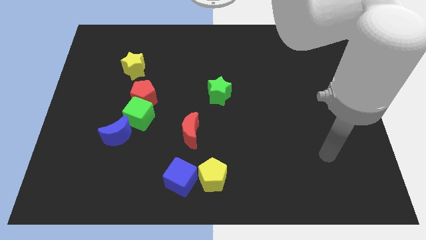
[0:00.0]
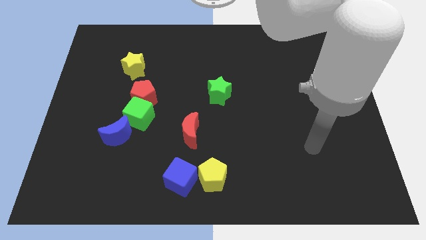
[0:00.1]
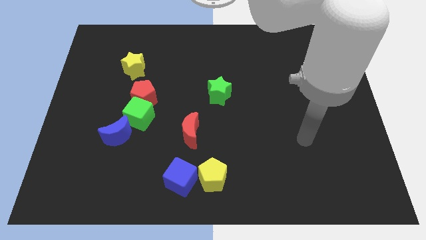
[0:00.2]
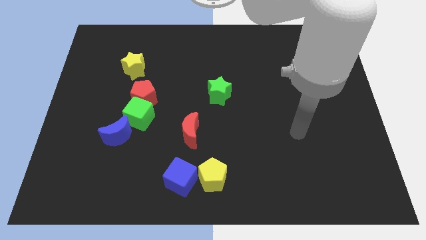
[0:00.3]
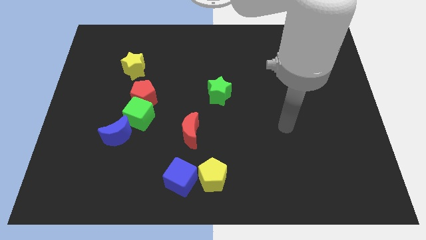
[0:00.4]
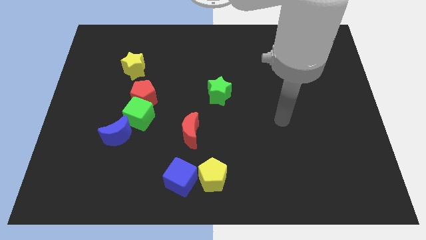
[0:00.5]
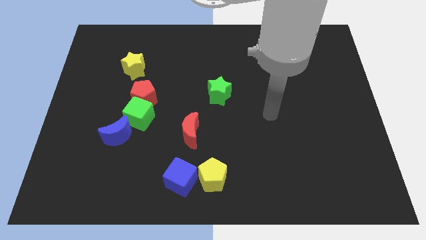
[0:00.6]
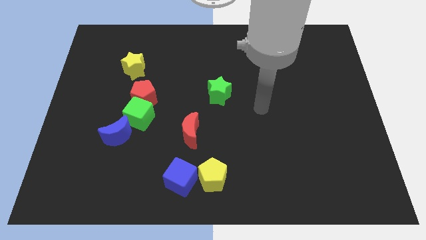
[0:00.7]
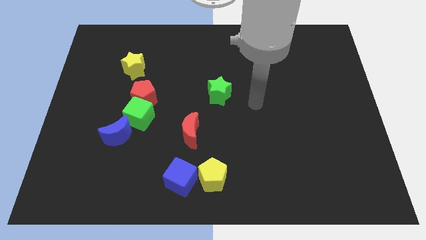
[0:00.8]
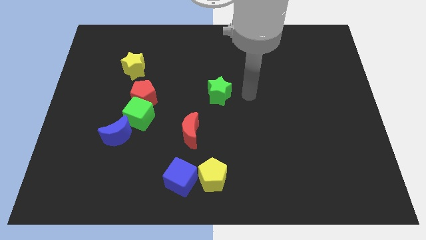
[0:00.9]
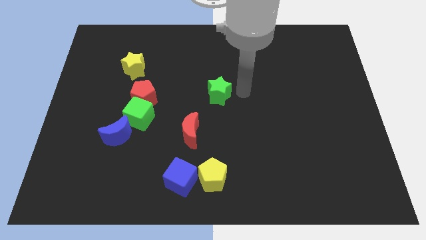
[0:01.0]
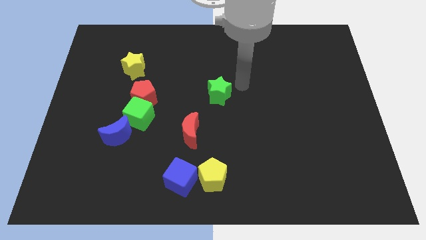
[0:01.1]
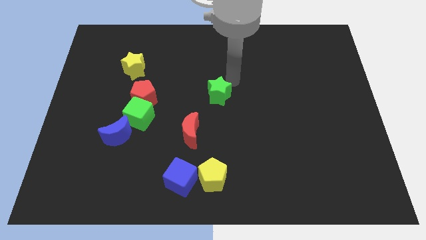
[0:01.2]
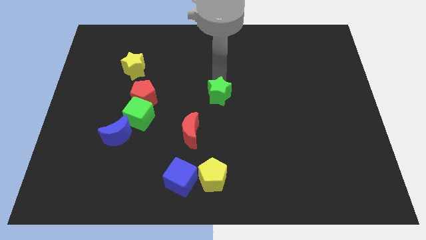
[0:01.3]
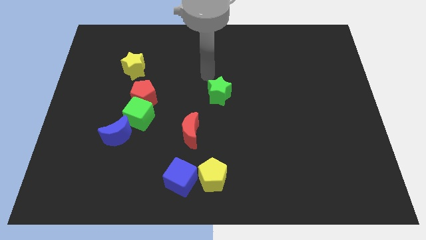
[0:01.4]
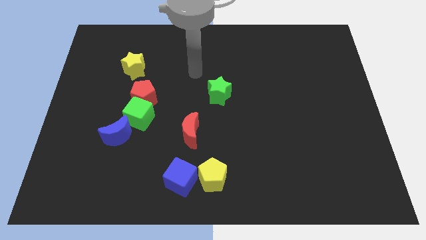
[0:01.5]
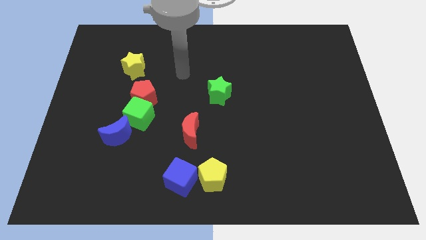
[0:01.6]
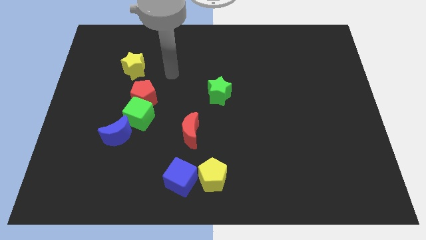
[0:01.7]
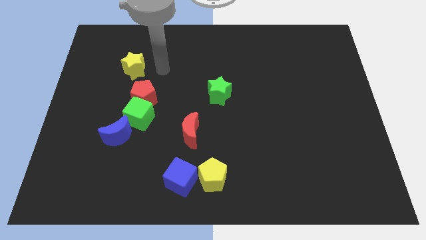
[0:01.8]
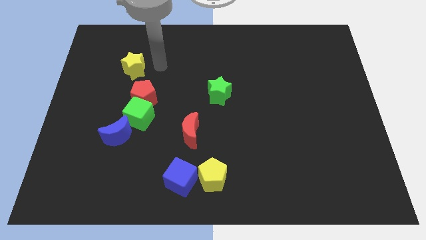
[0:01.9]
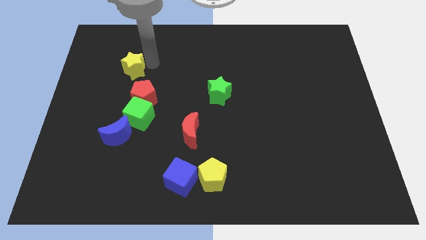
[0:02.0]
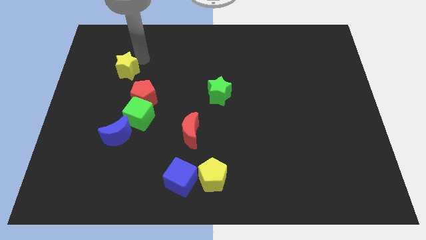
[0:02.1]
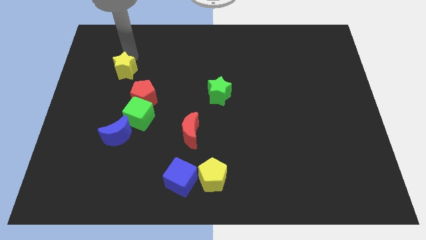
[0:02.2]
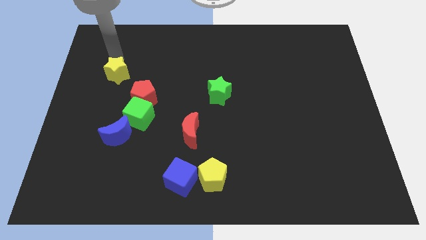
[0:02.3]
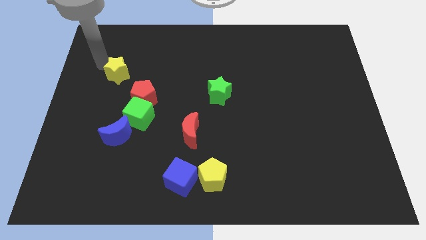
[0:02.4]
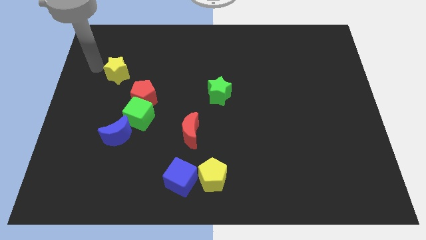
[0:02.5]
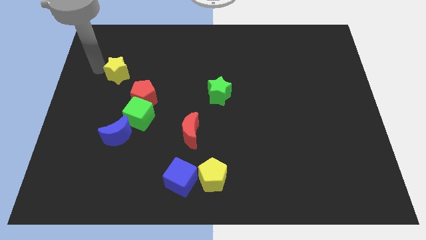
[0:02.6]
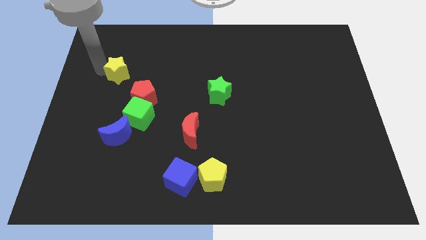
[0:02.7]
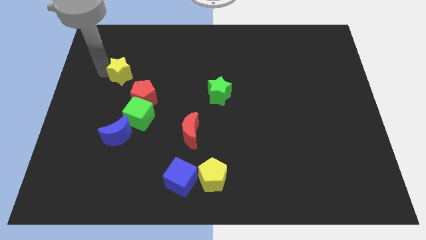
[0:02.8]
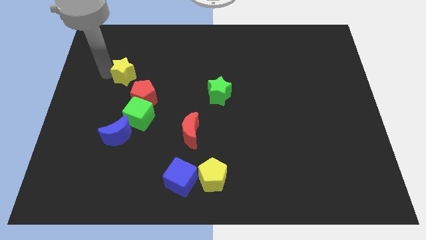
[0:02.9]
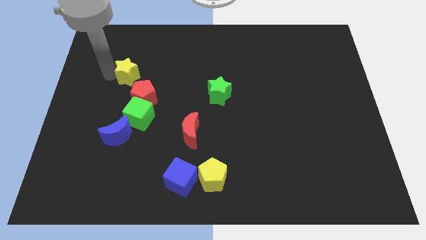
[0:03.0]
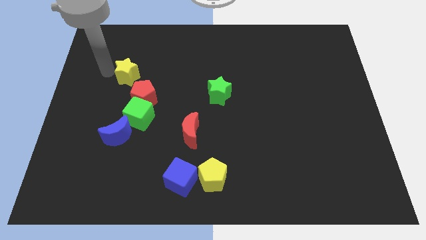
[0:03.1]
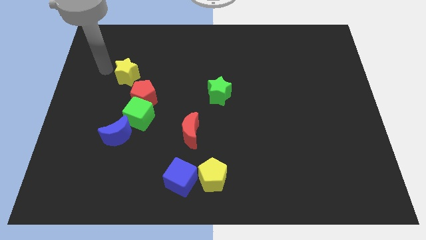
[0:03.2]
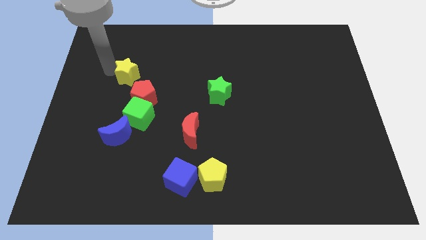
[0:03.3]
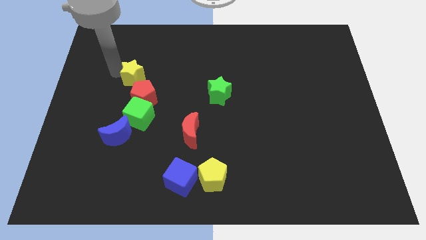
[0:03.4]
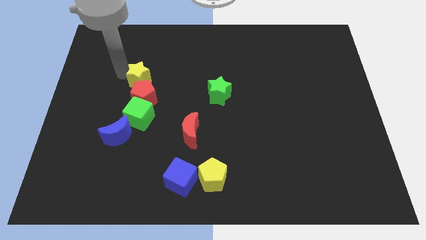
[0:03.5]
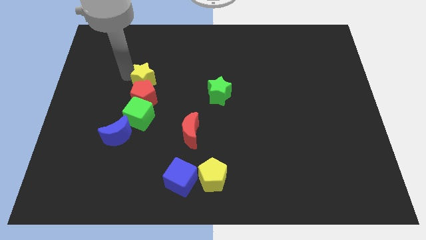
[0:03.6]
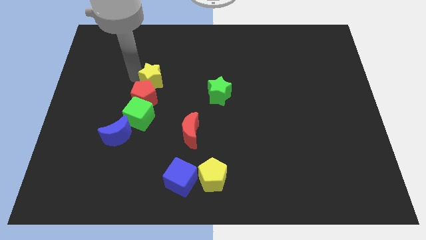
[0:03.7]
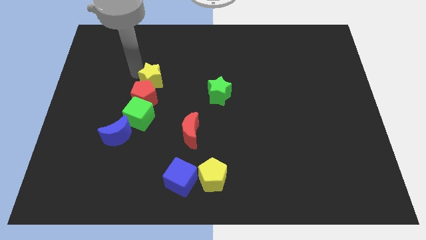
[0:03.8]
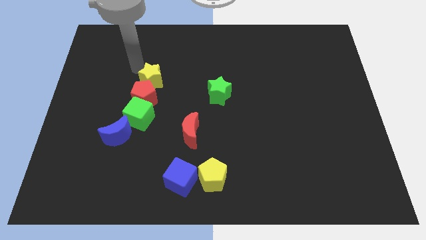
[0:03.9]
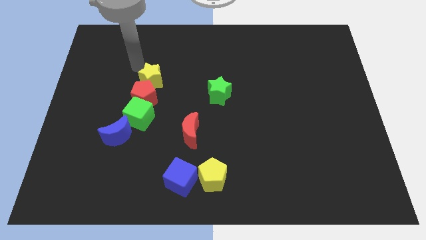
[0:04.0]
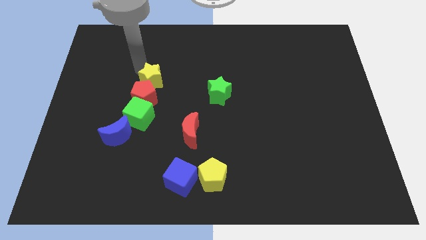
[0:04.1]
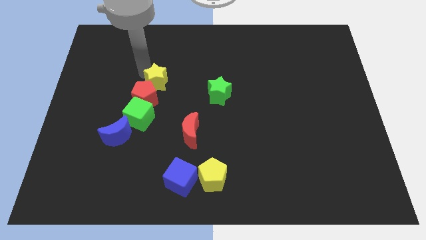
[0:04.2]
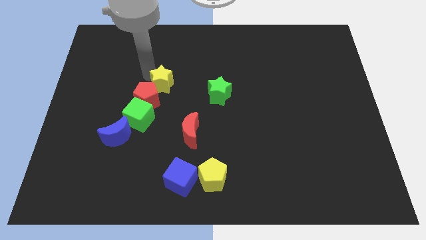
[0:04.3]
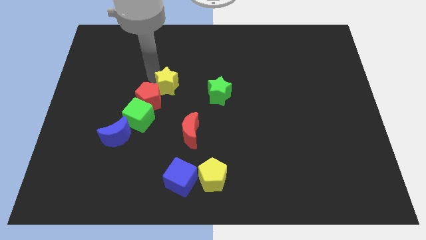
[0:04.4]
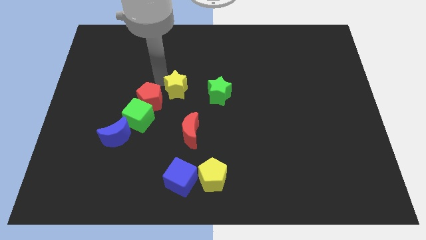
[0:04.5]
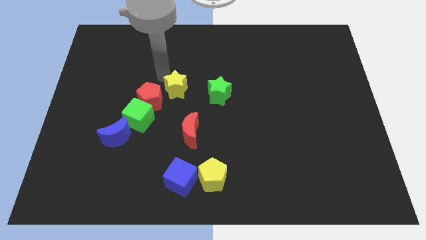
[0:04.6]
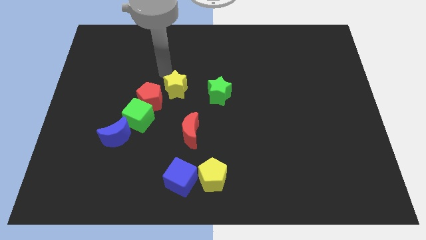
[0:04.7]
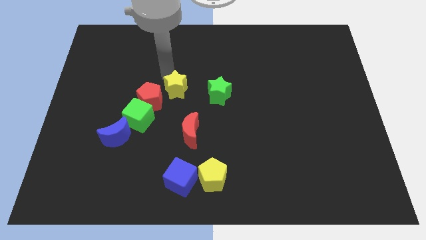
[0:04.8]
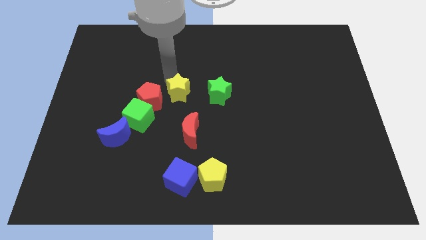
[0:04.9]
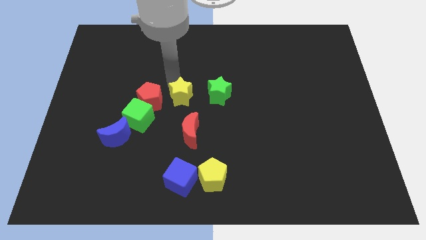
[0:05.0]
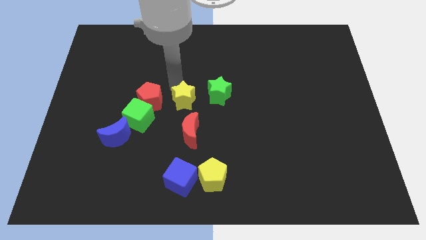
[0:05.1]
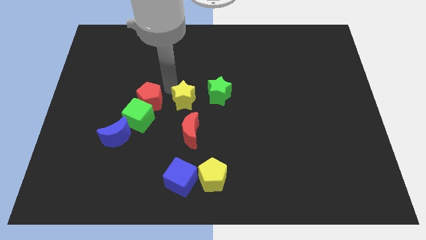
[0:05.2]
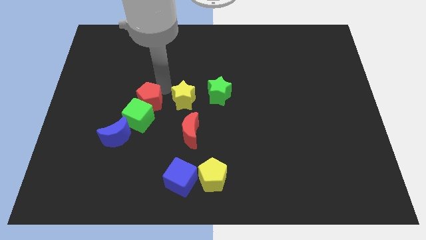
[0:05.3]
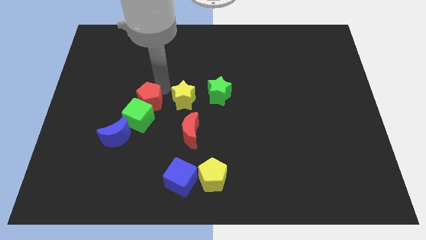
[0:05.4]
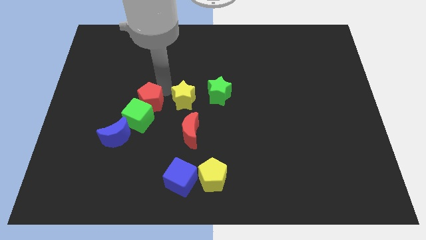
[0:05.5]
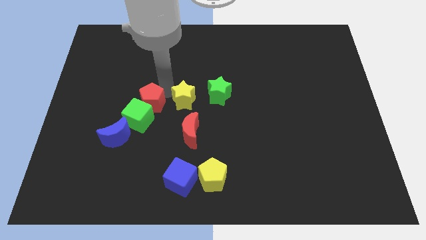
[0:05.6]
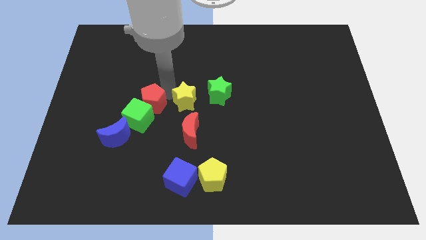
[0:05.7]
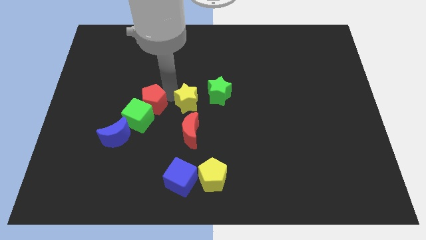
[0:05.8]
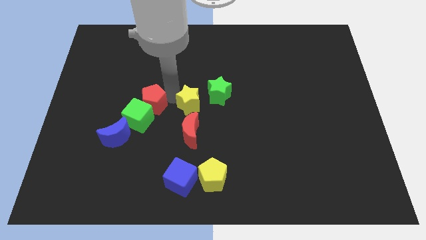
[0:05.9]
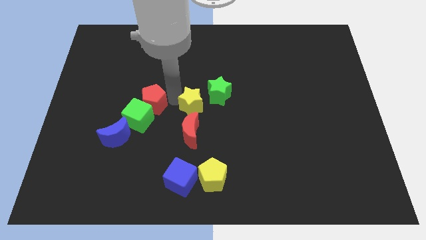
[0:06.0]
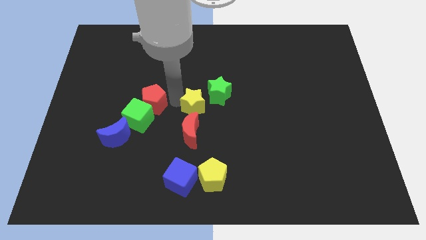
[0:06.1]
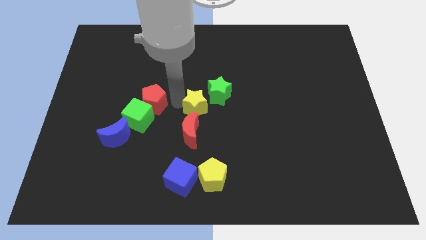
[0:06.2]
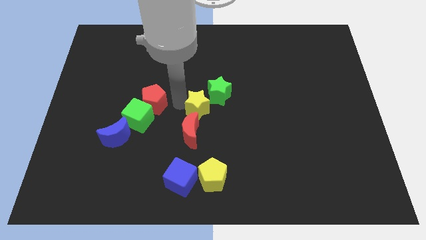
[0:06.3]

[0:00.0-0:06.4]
move the yellow star downwards and to the right diagonally

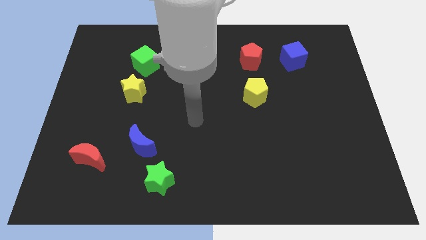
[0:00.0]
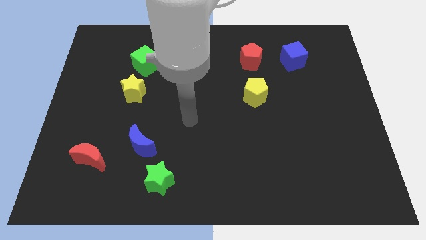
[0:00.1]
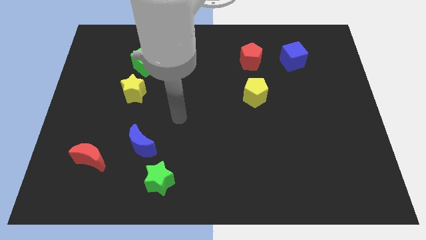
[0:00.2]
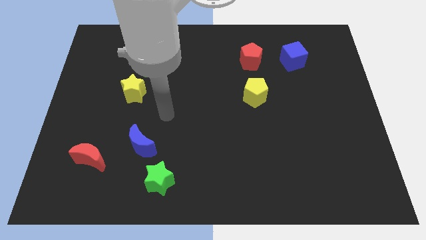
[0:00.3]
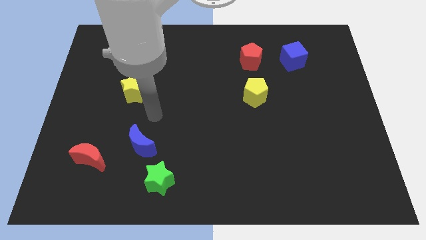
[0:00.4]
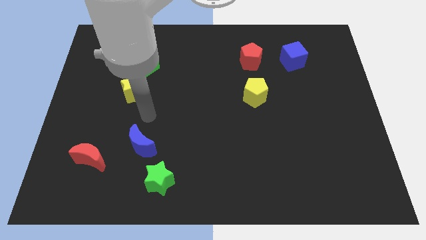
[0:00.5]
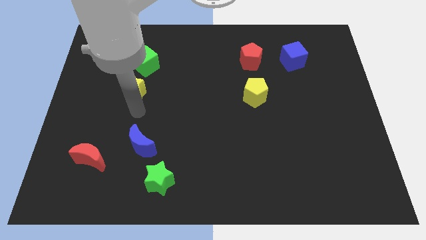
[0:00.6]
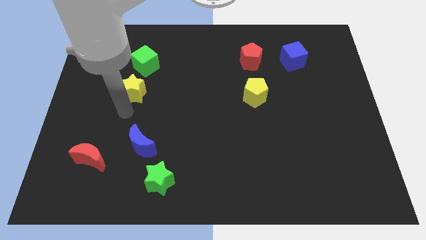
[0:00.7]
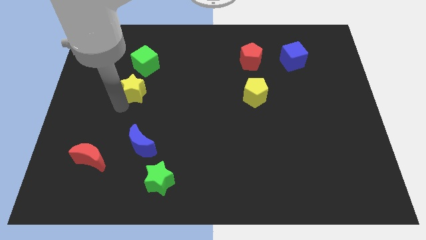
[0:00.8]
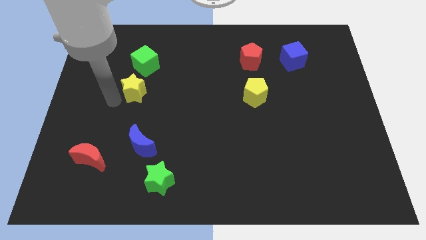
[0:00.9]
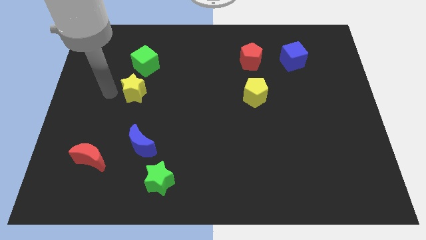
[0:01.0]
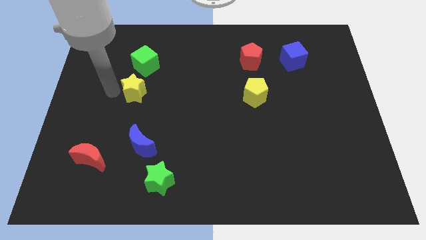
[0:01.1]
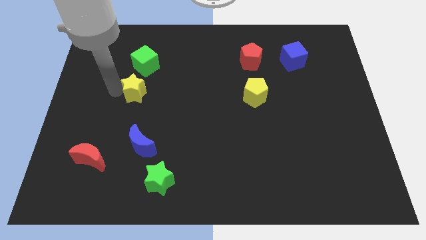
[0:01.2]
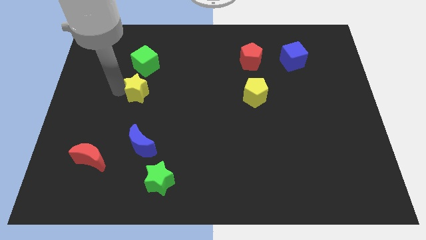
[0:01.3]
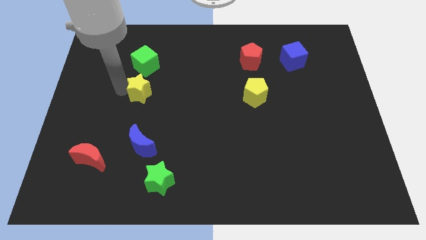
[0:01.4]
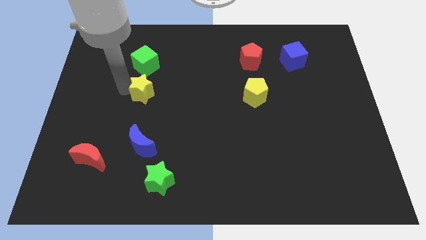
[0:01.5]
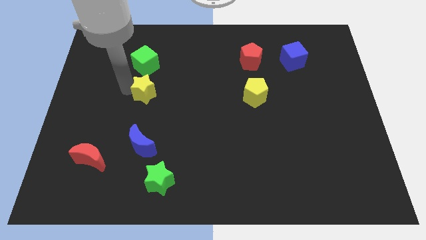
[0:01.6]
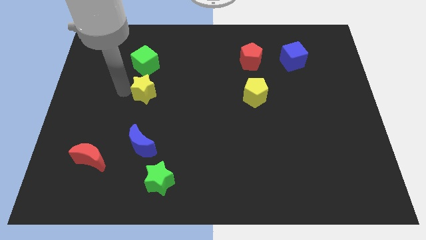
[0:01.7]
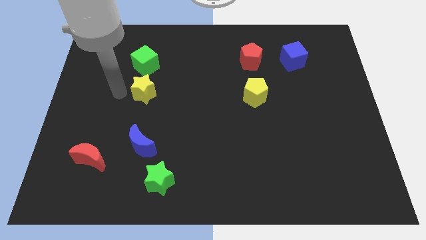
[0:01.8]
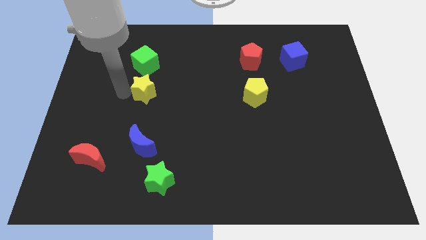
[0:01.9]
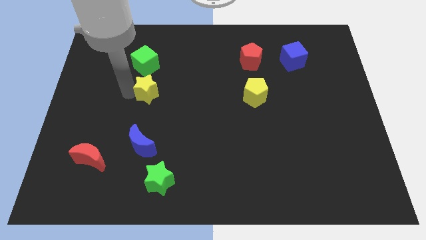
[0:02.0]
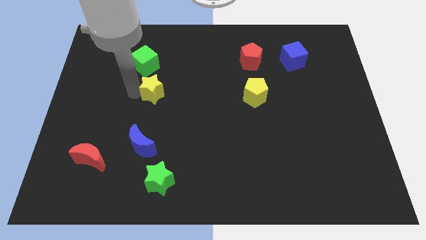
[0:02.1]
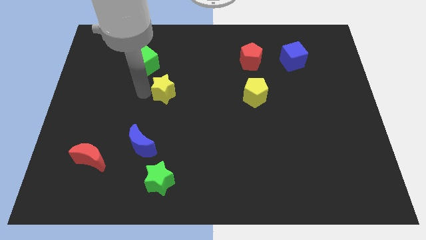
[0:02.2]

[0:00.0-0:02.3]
slightly move the yellow star right
